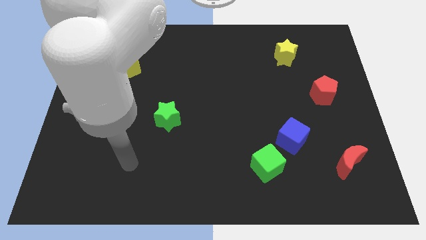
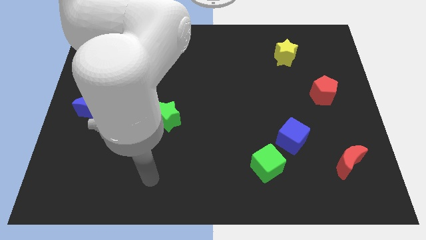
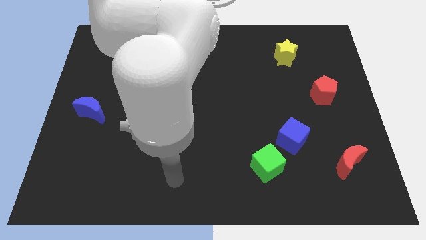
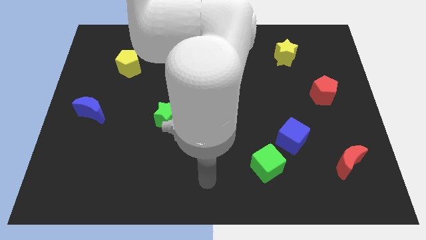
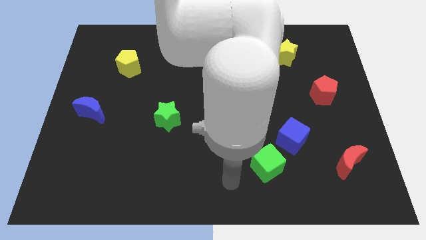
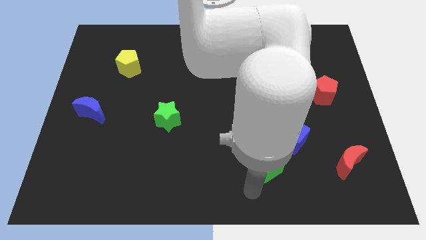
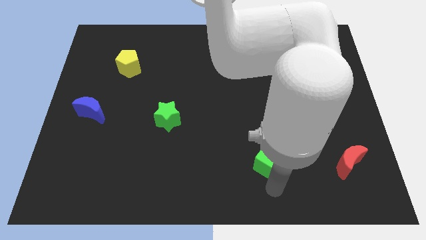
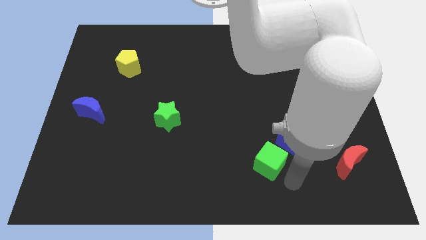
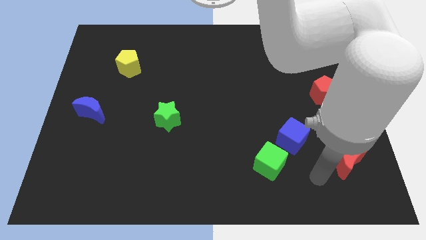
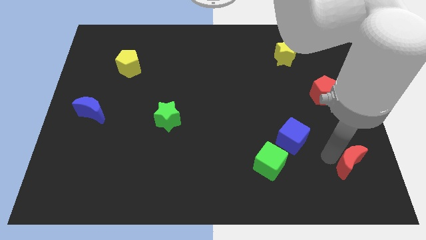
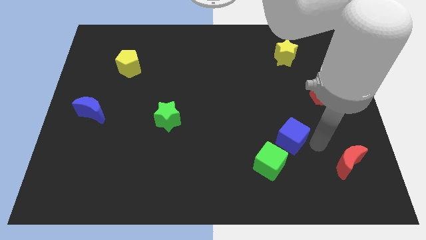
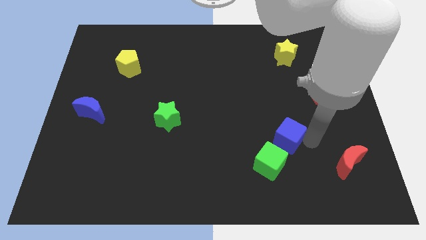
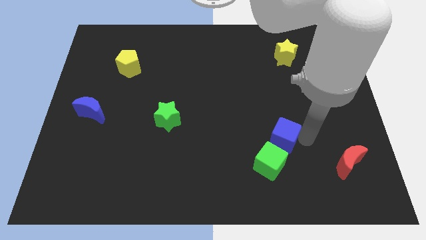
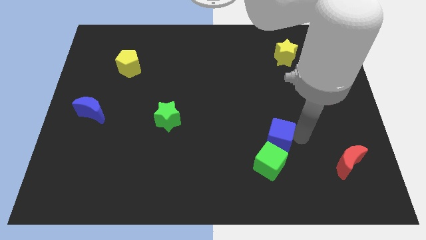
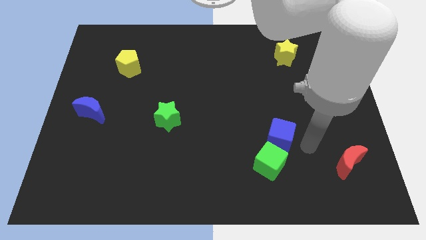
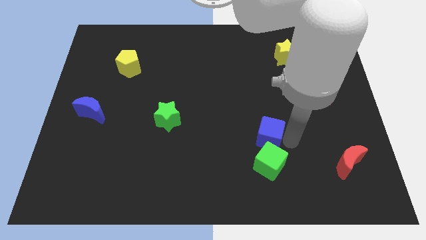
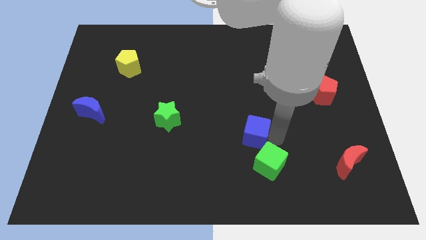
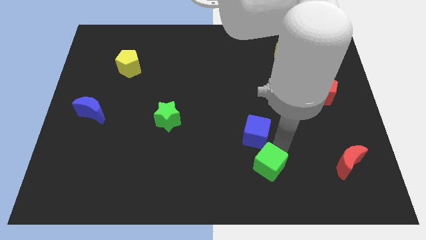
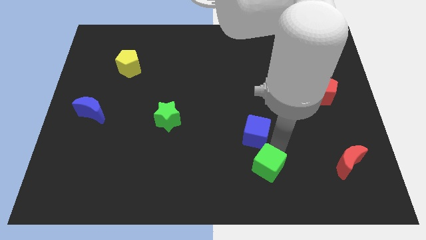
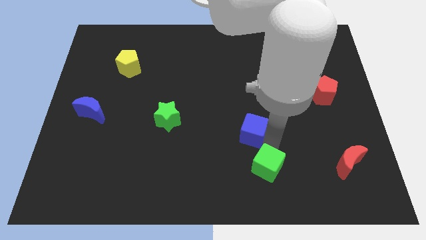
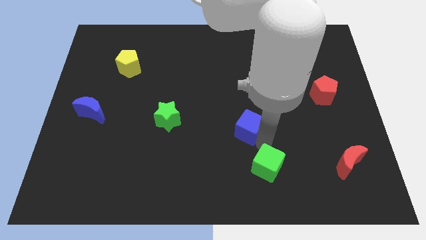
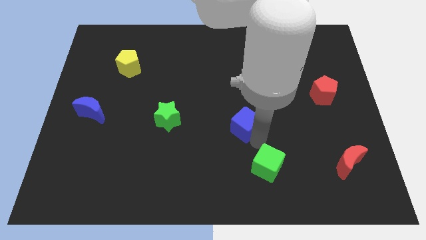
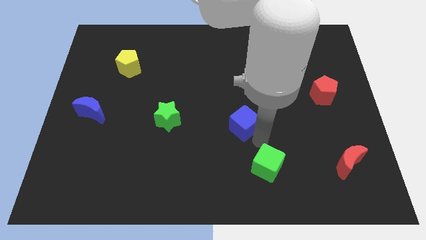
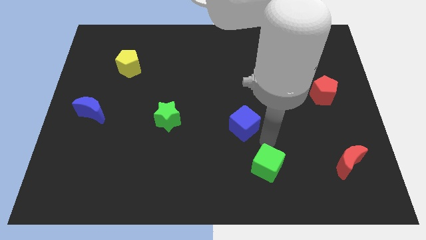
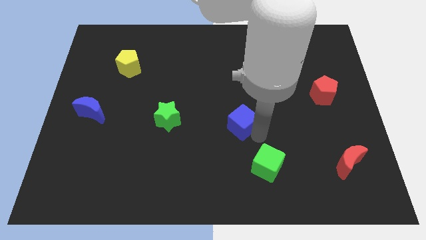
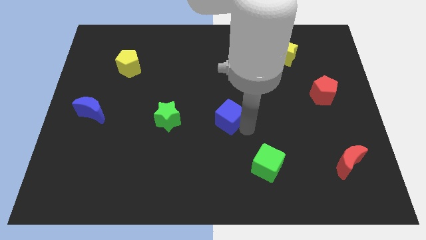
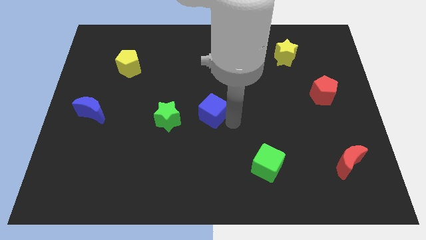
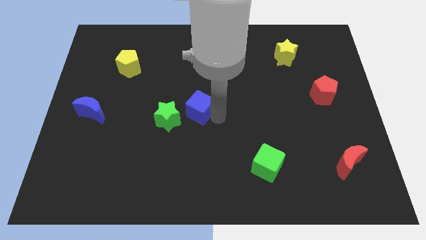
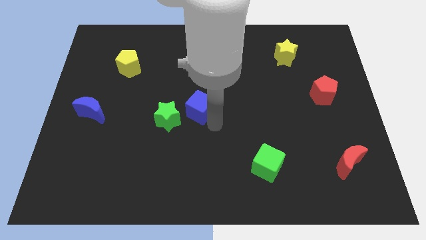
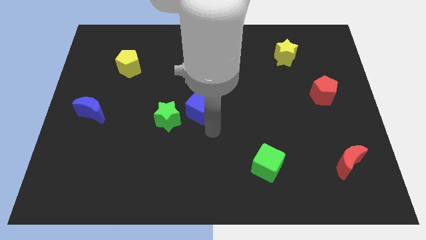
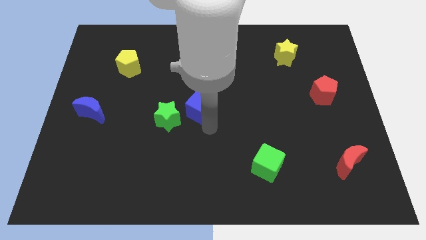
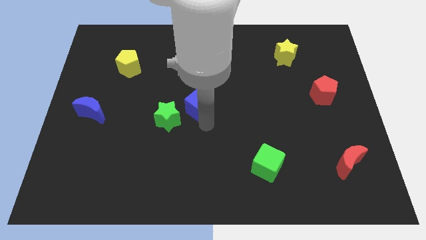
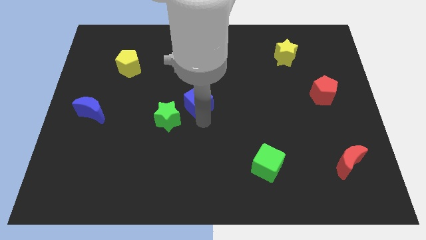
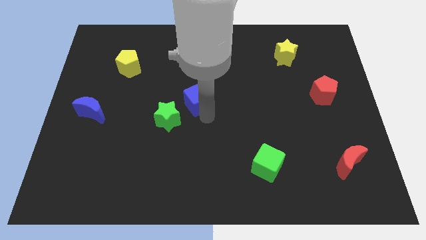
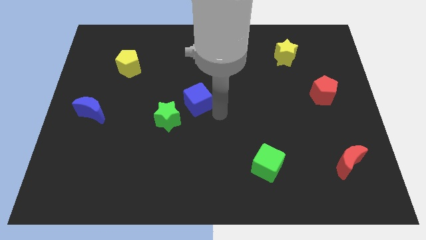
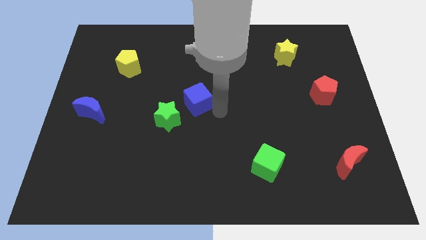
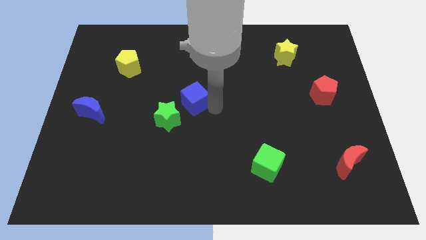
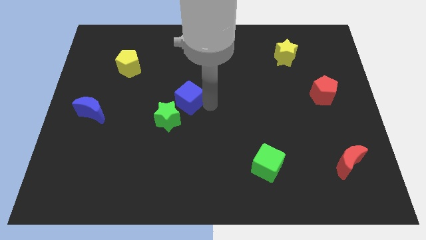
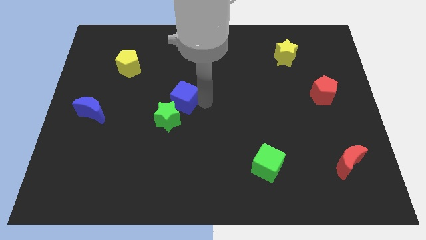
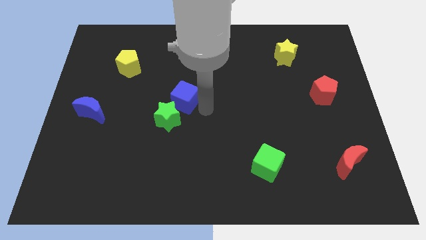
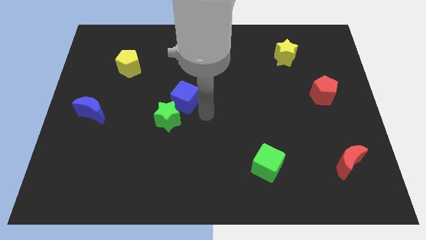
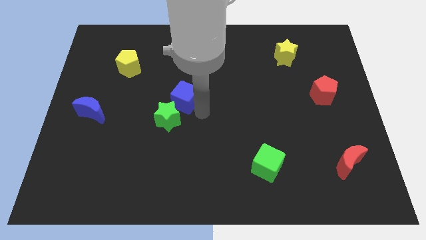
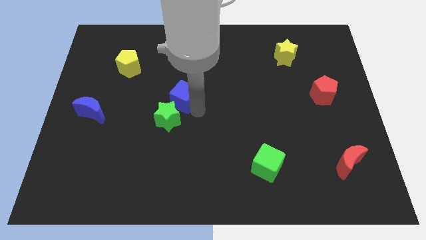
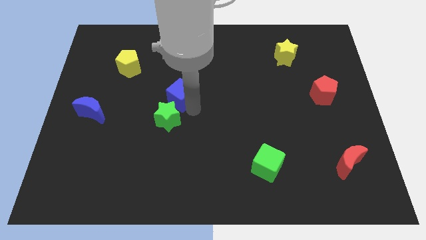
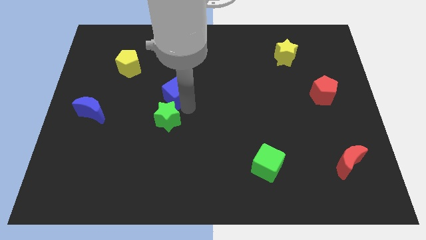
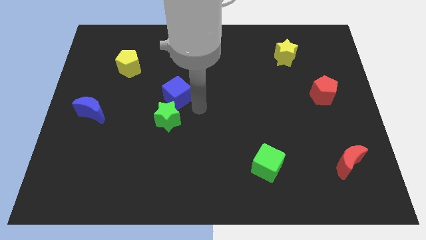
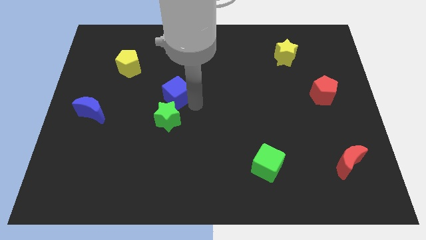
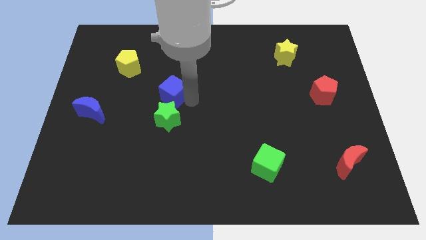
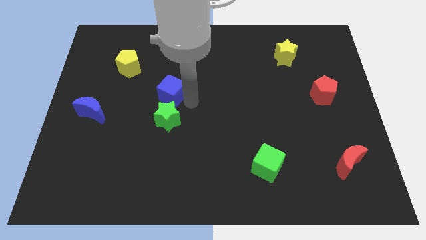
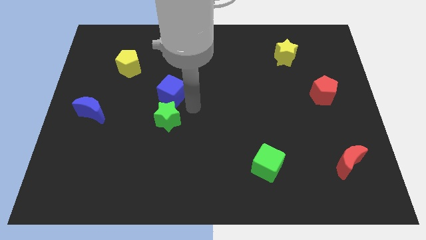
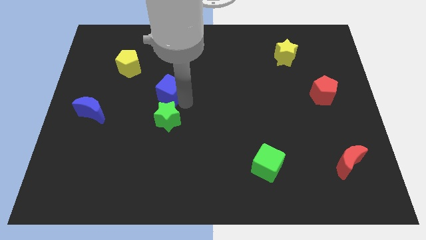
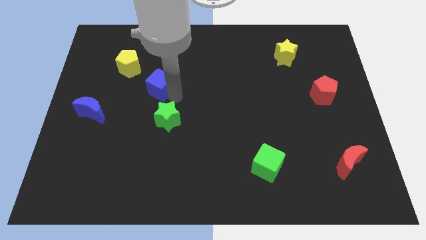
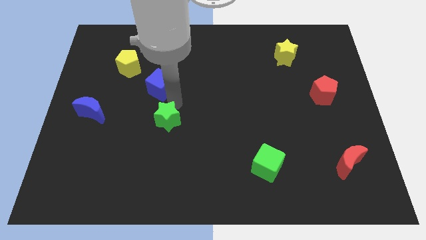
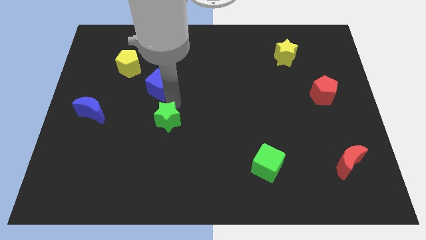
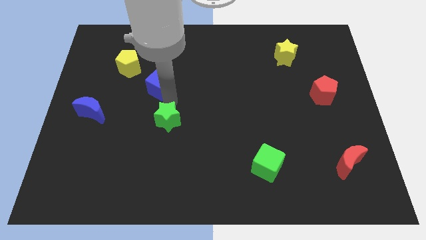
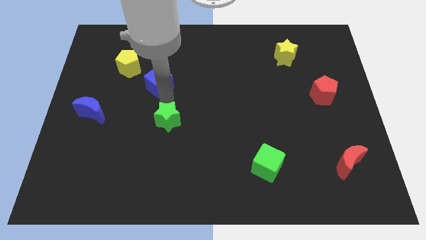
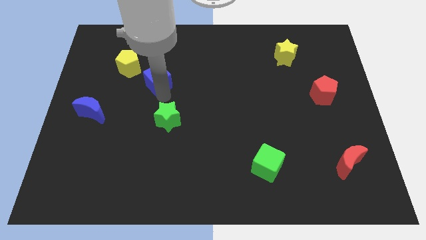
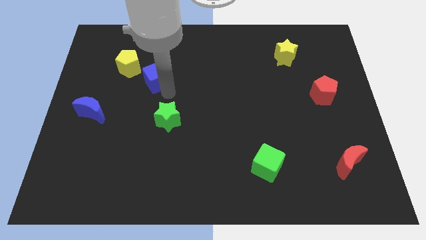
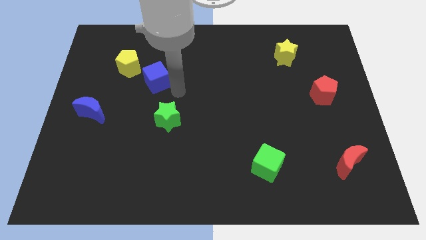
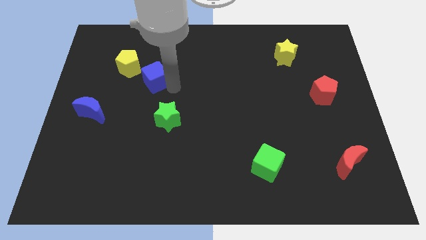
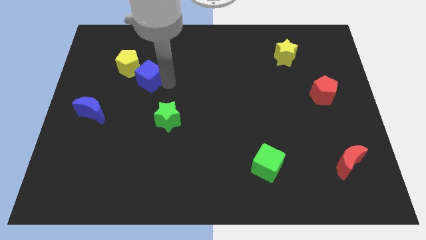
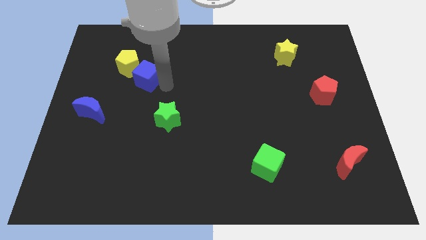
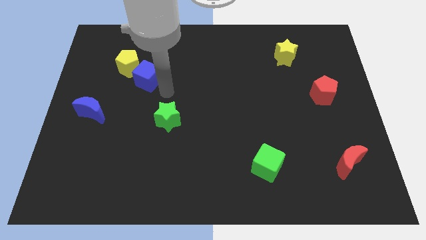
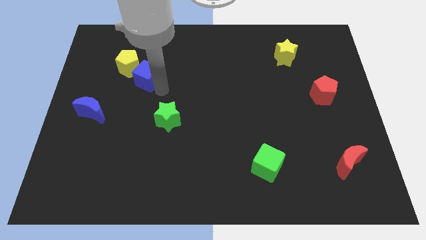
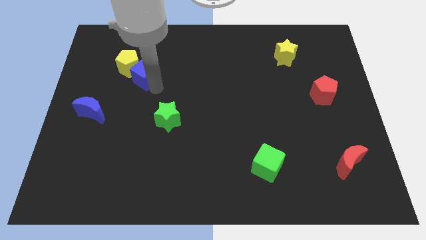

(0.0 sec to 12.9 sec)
slide the blue cube next to the yellow pentagon

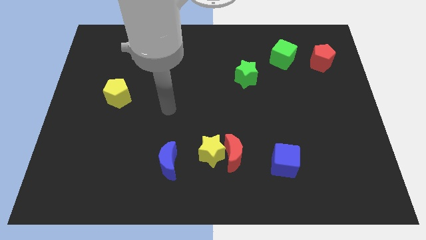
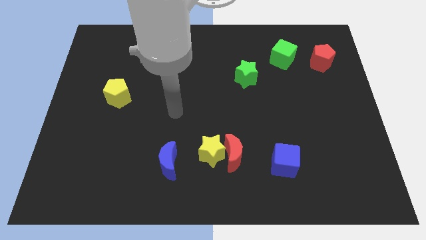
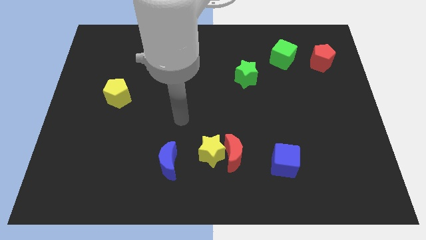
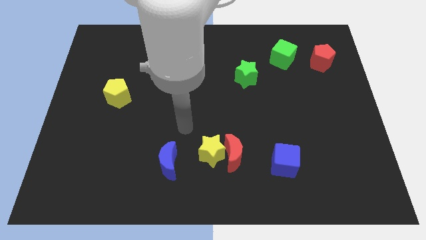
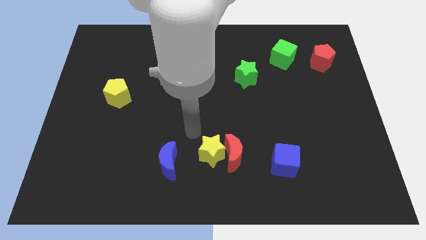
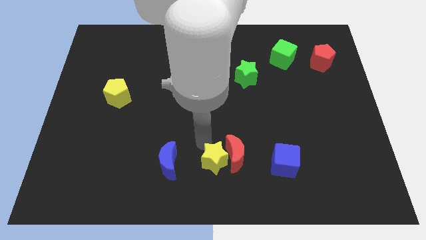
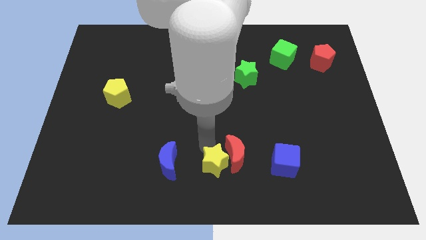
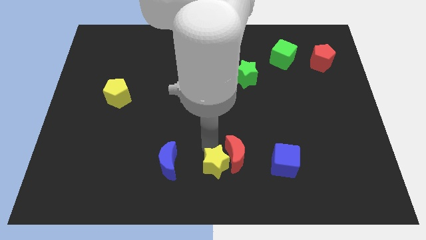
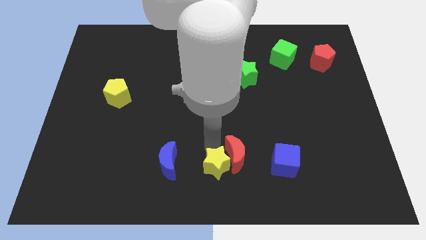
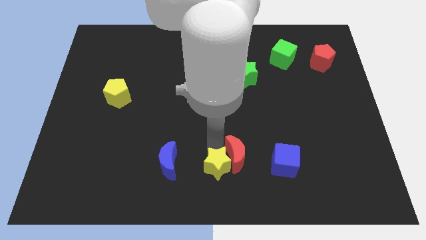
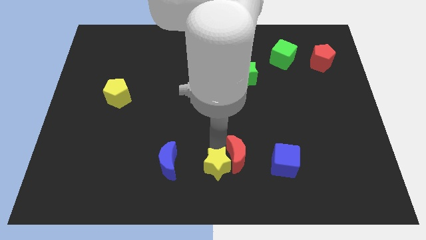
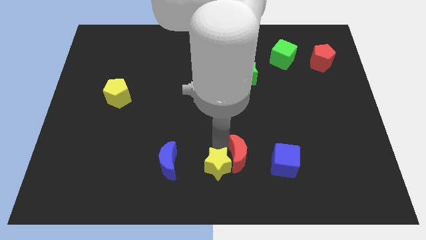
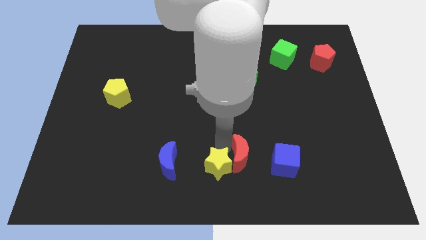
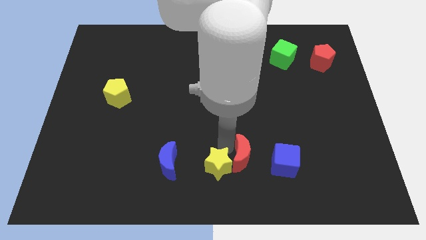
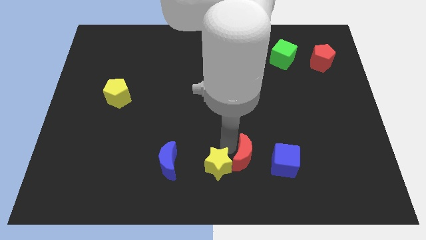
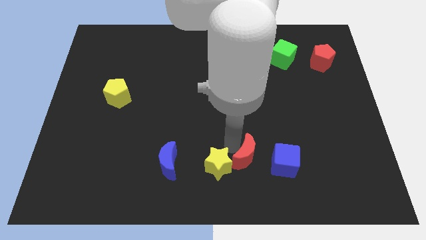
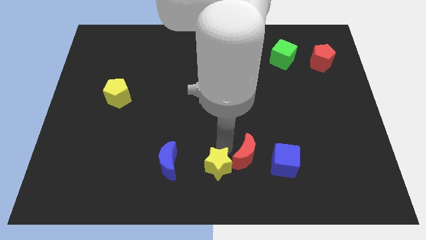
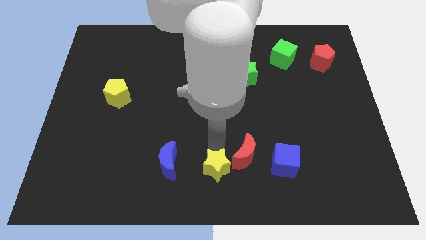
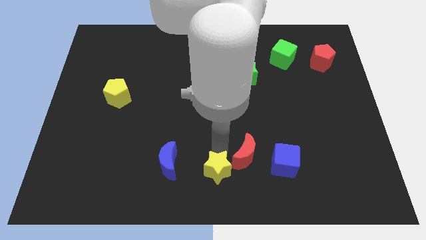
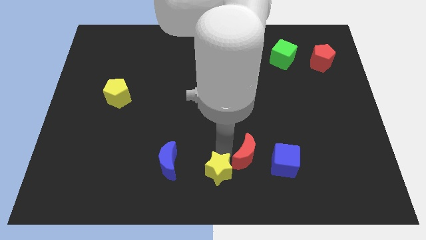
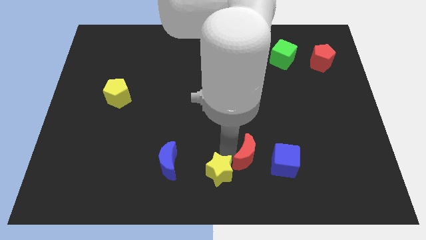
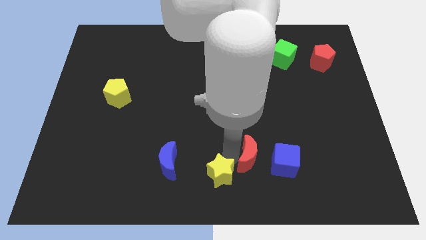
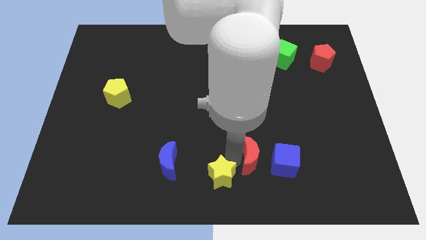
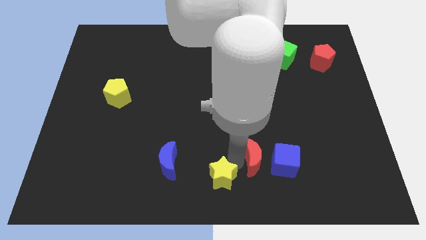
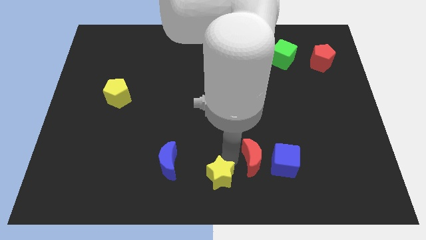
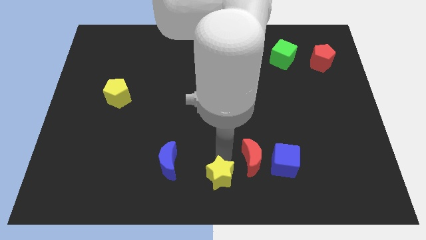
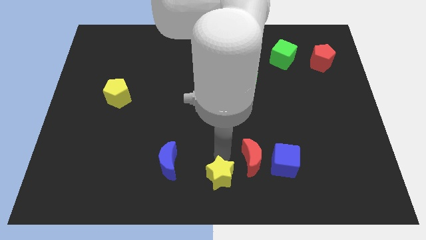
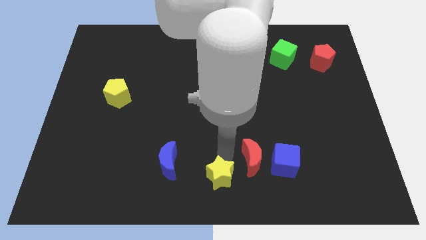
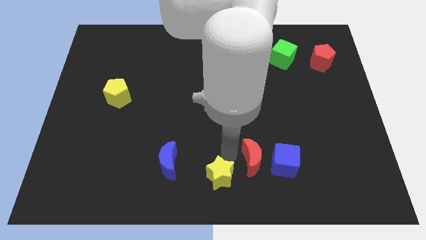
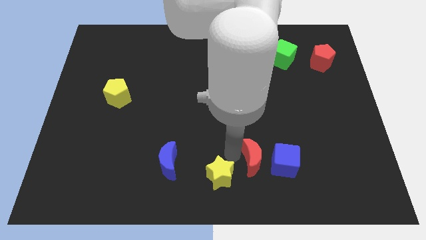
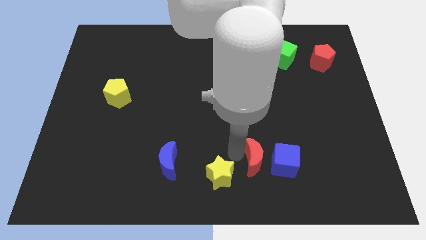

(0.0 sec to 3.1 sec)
push the red moon close to the blue cube
